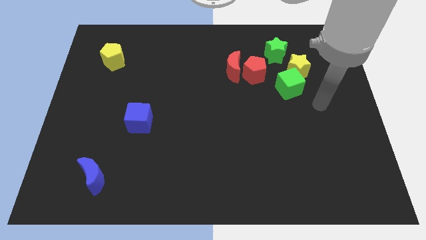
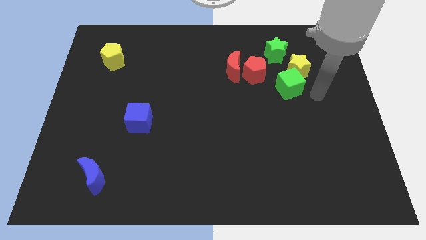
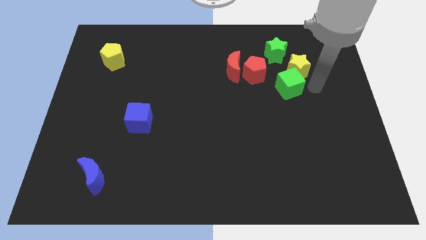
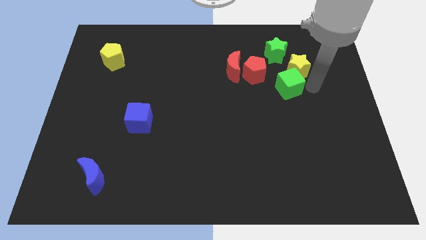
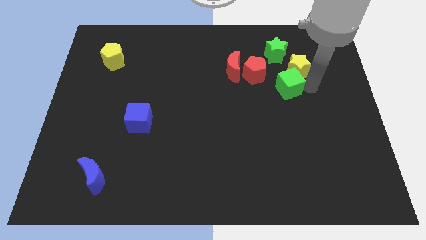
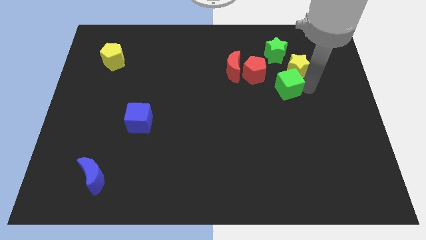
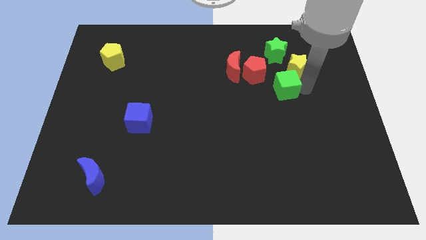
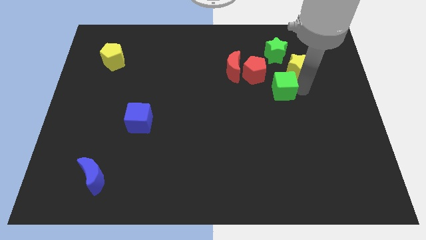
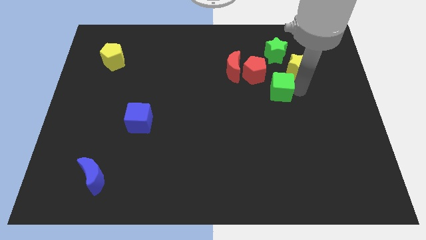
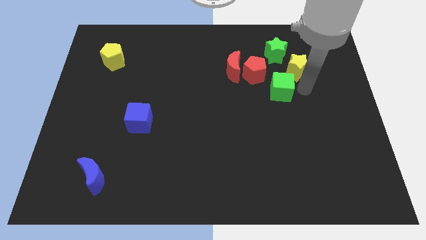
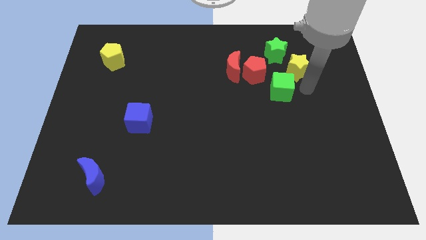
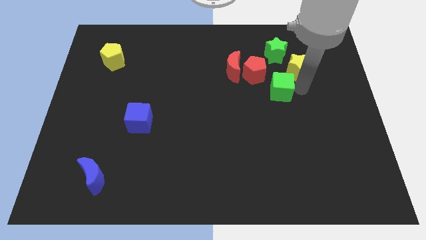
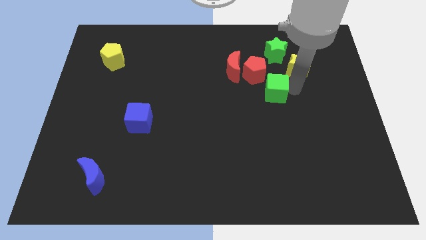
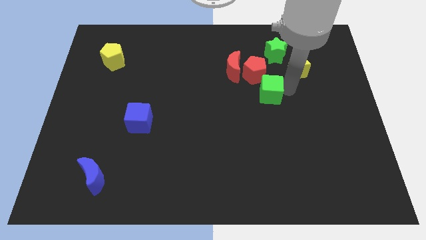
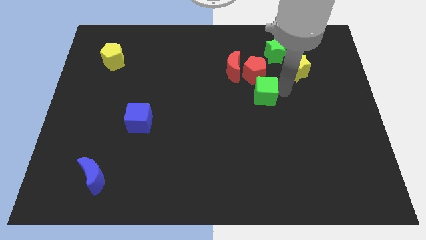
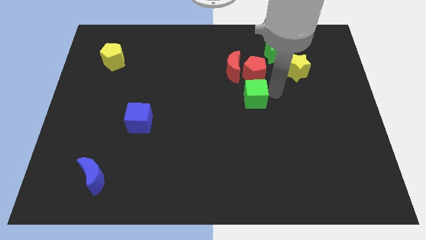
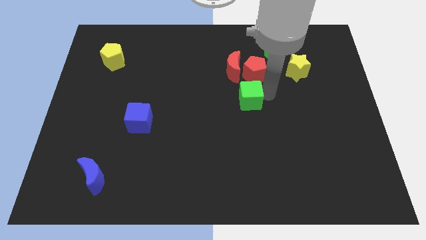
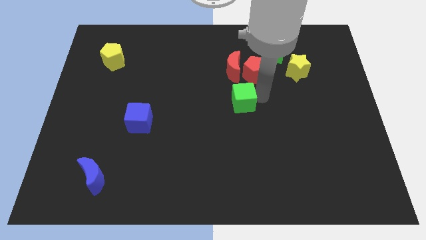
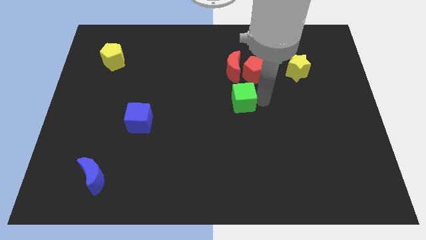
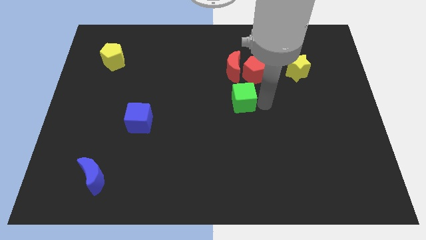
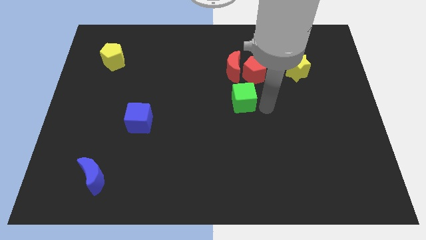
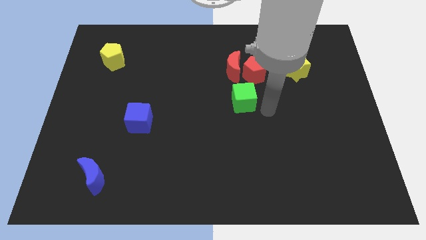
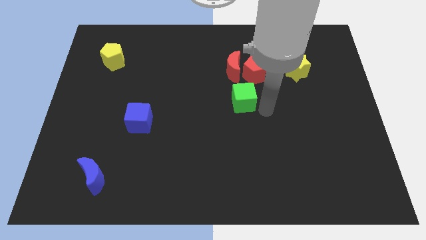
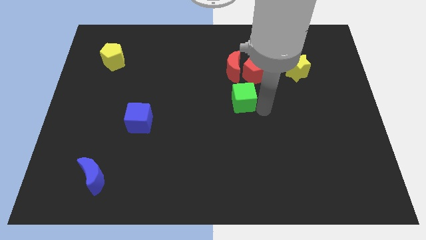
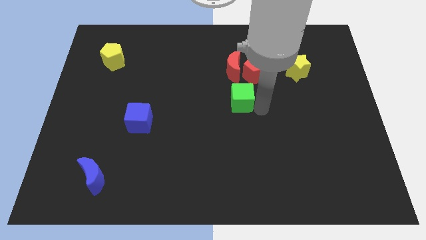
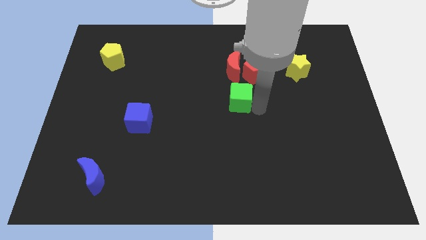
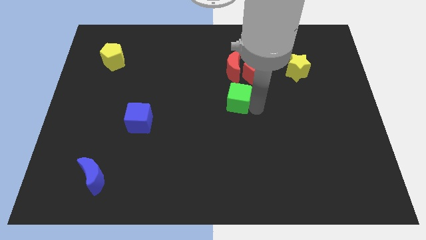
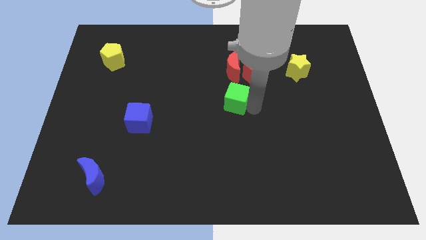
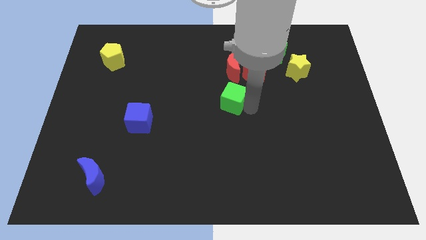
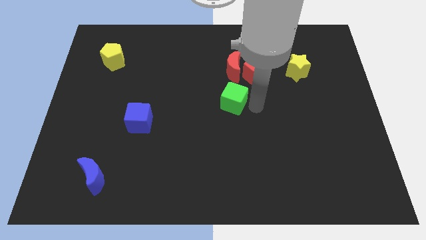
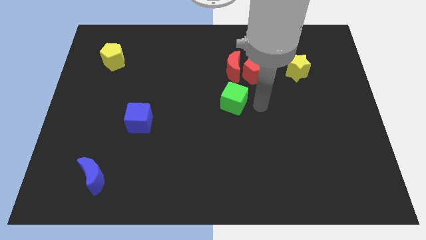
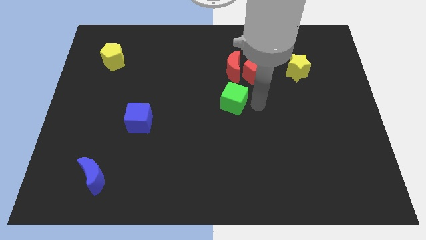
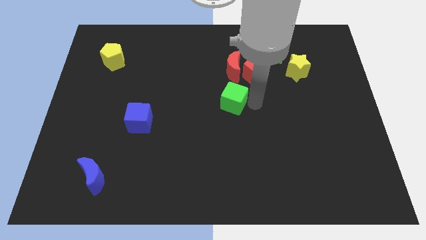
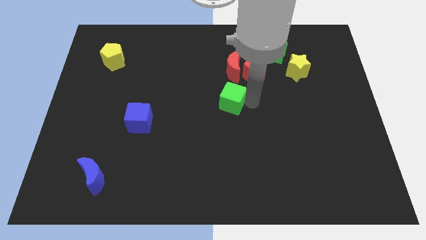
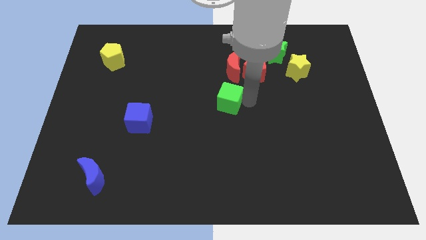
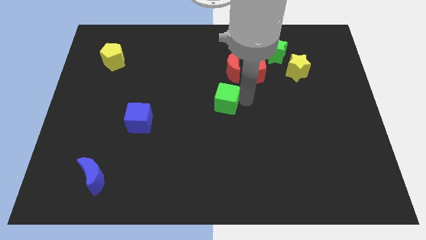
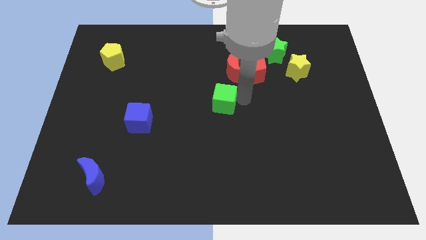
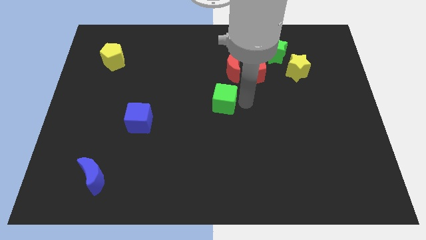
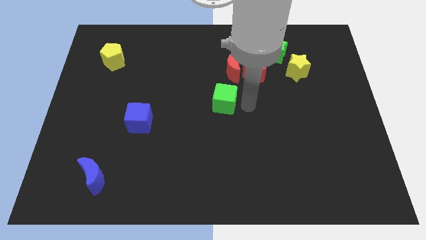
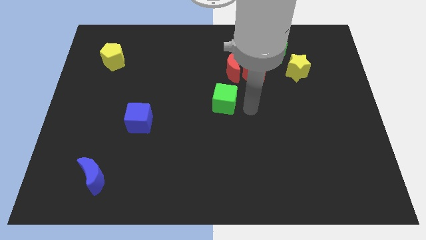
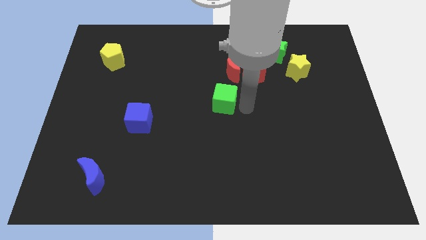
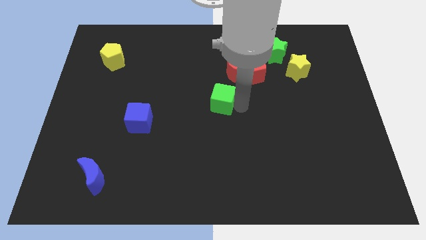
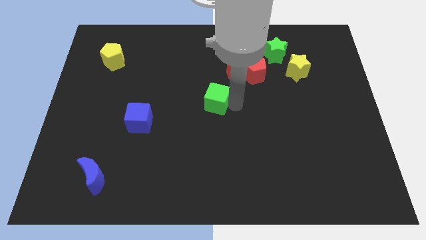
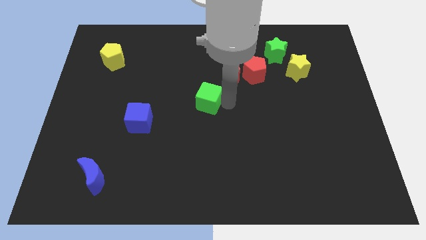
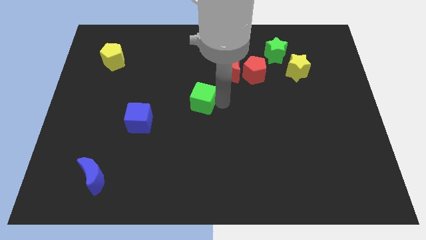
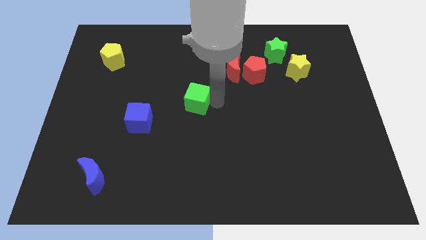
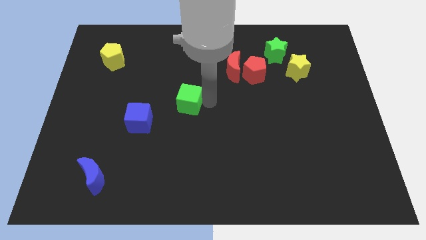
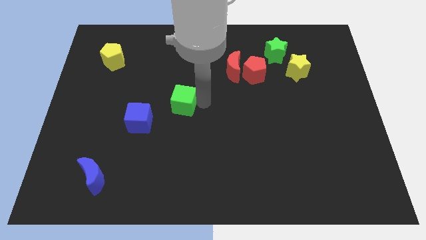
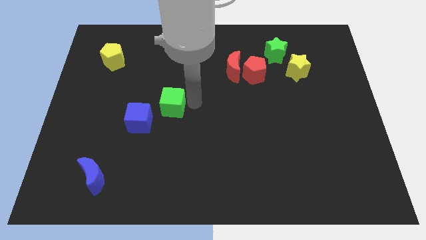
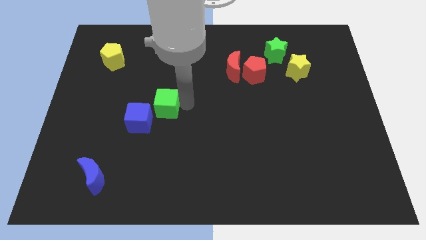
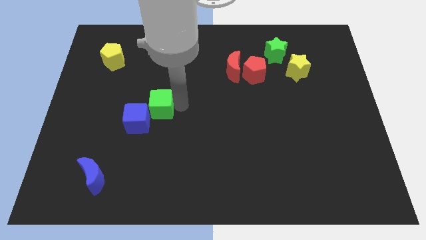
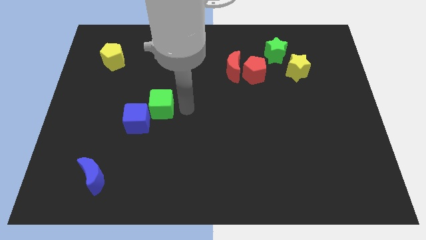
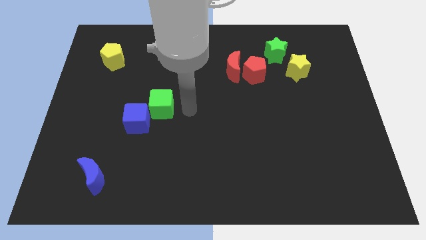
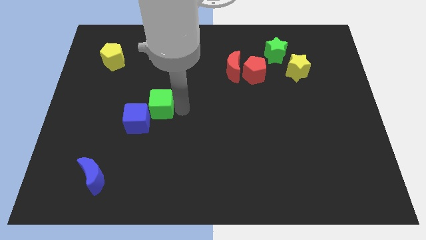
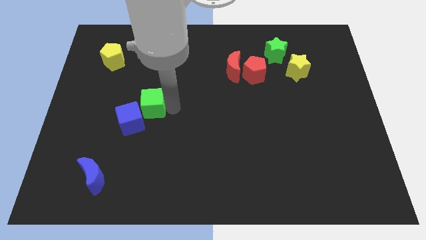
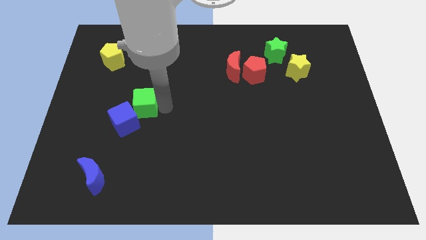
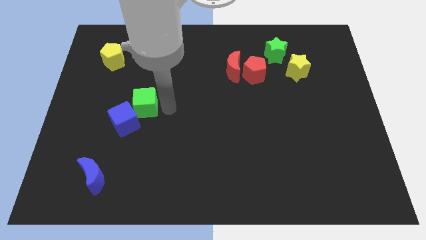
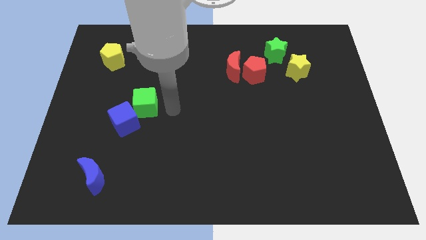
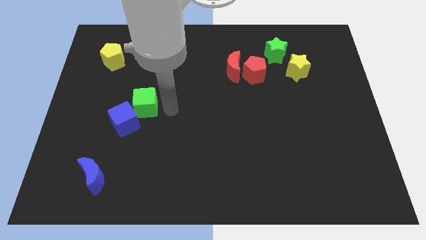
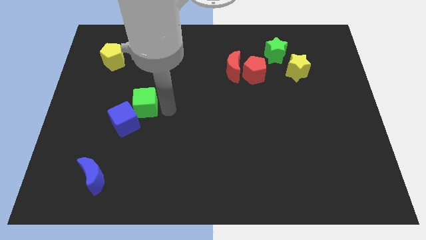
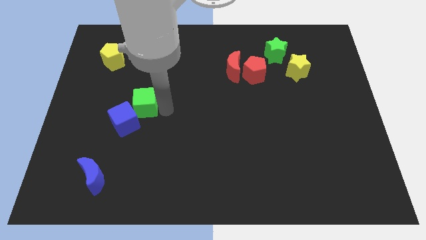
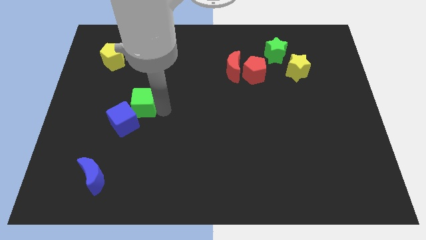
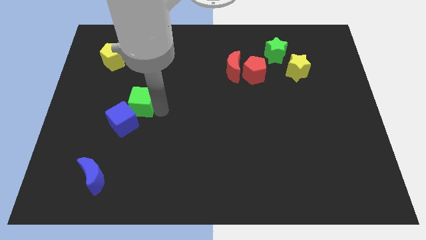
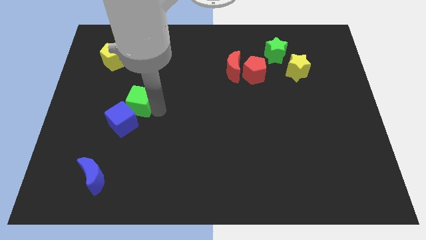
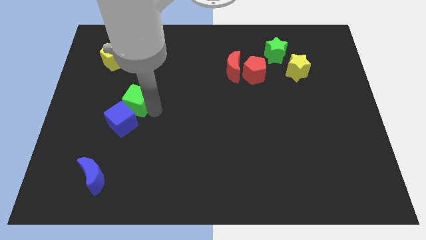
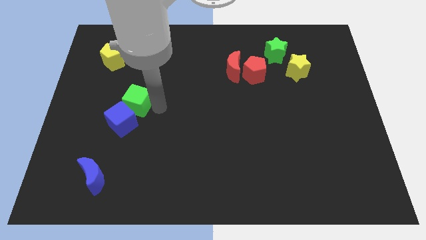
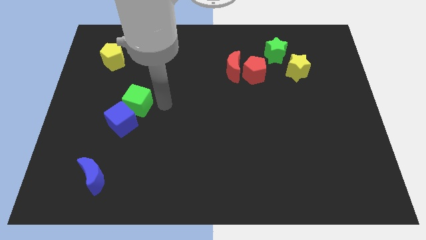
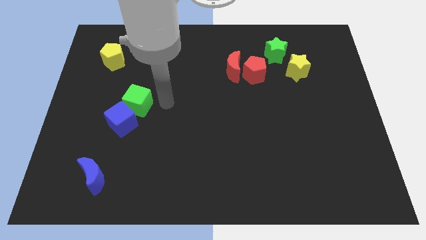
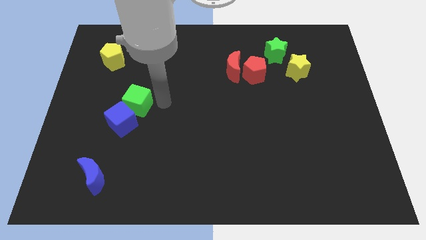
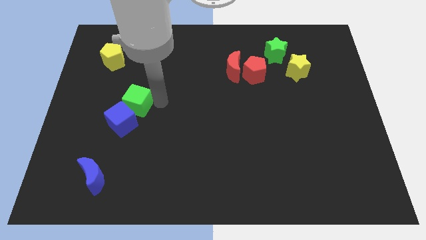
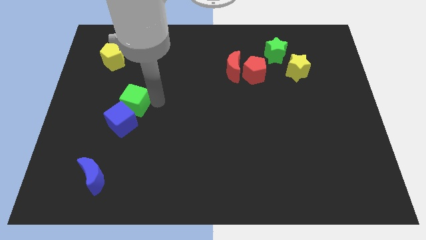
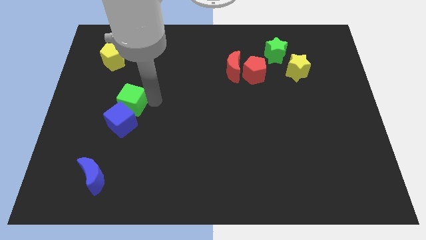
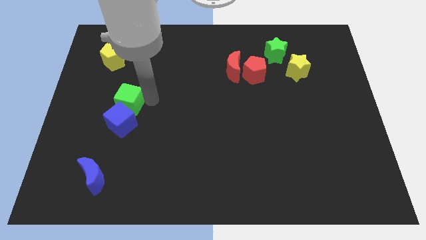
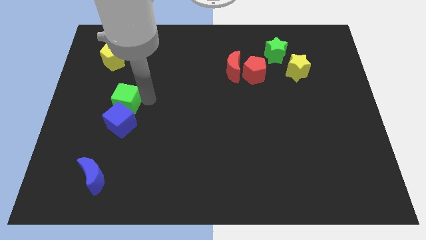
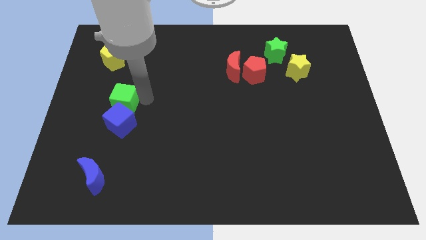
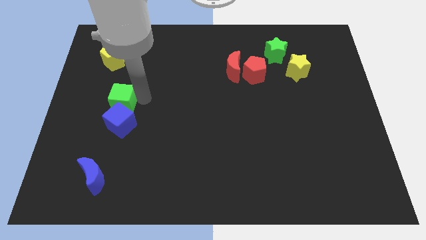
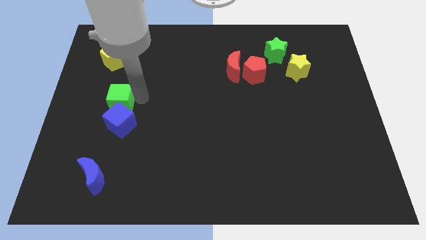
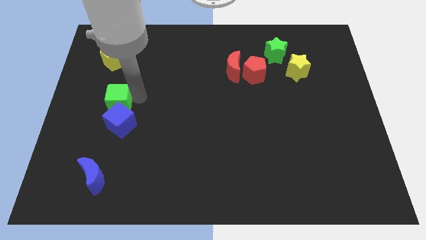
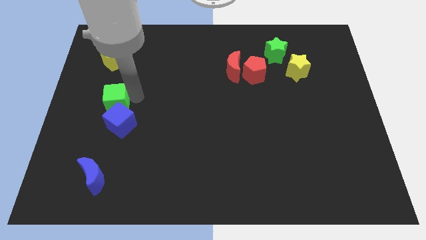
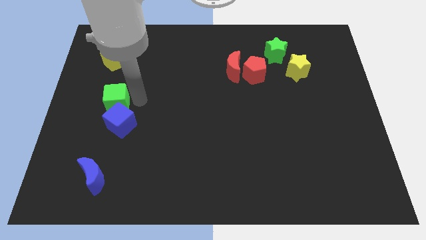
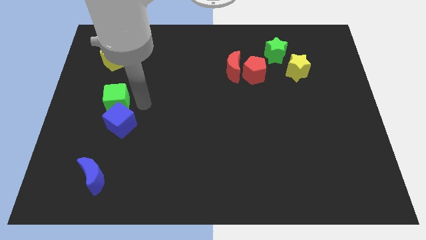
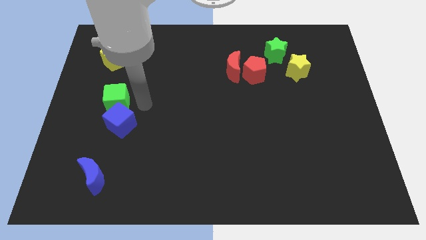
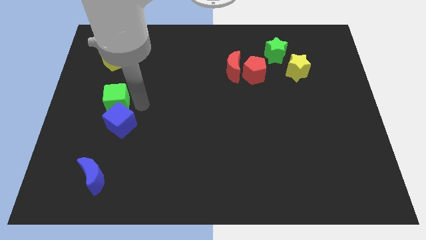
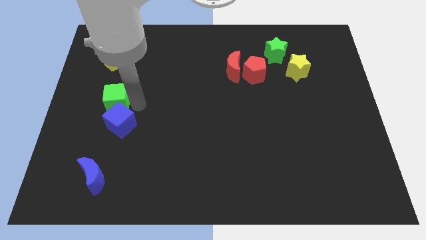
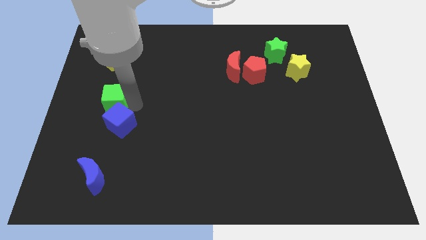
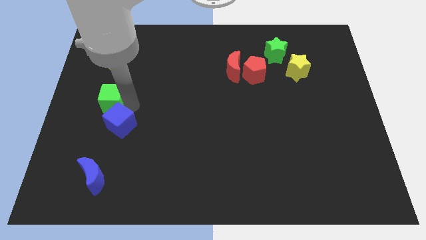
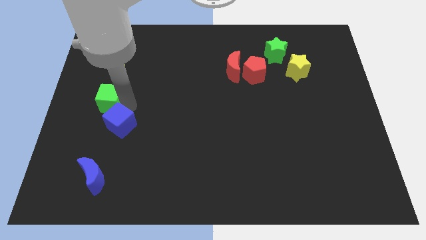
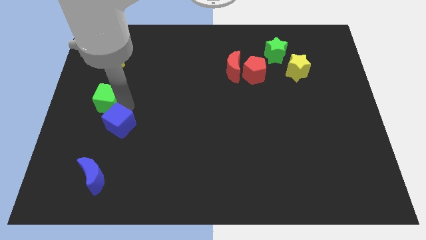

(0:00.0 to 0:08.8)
move the green cube to the left side of the board
